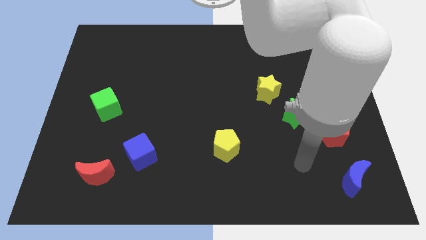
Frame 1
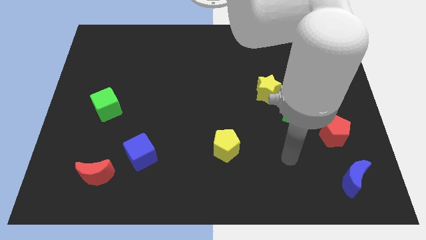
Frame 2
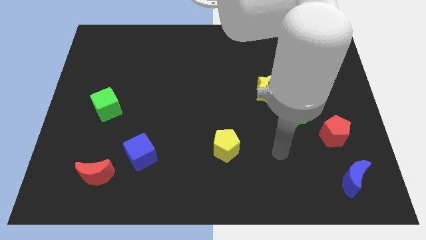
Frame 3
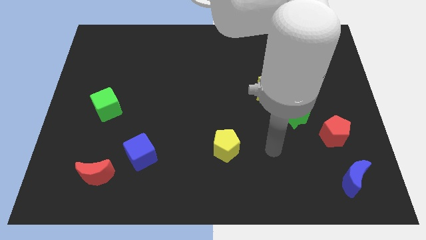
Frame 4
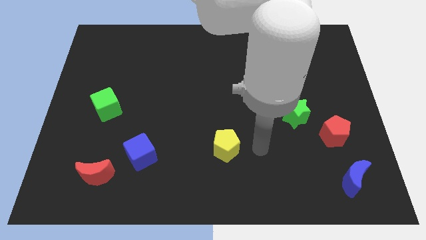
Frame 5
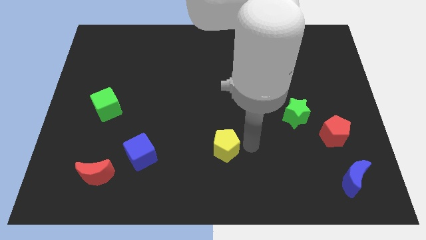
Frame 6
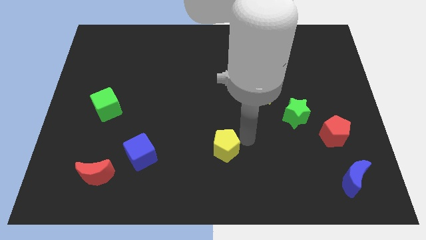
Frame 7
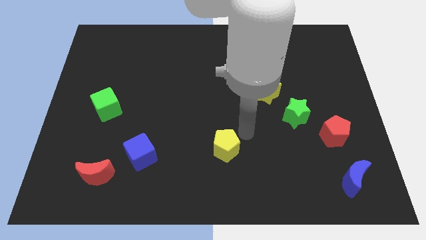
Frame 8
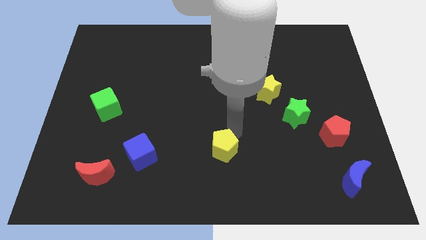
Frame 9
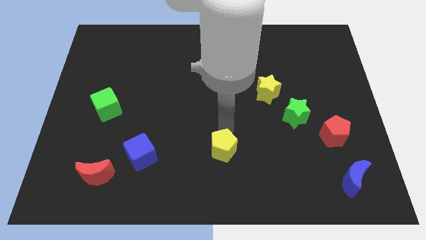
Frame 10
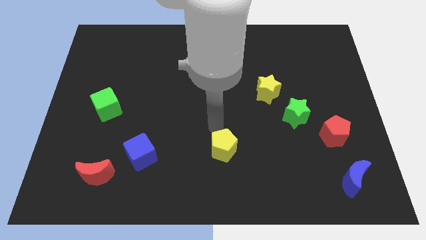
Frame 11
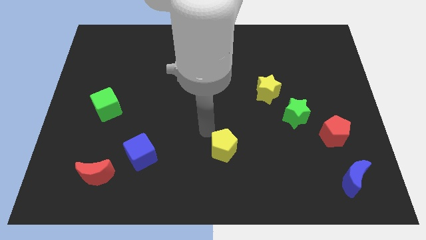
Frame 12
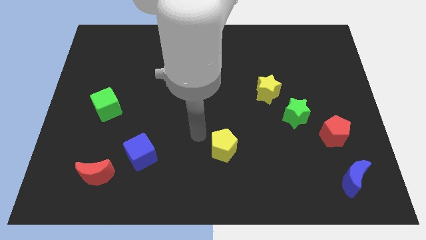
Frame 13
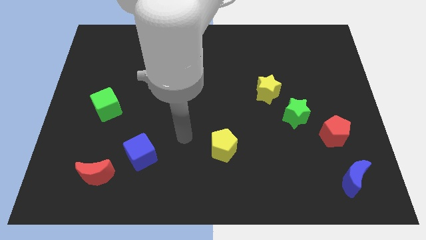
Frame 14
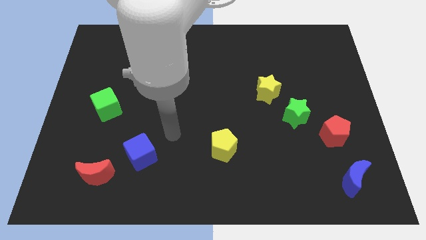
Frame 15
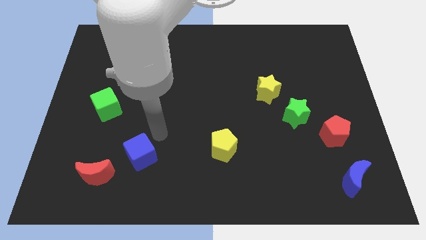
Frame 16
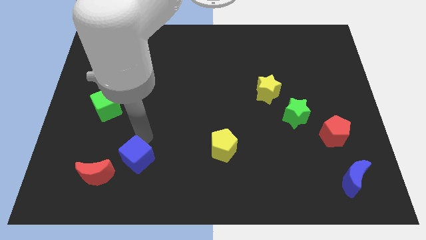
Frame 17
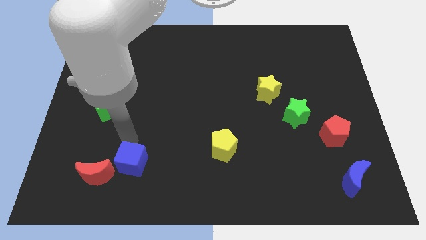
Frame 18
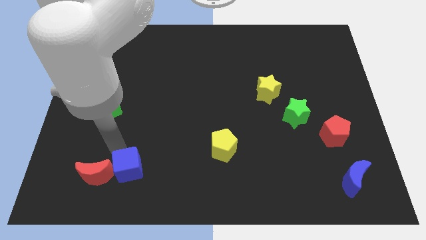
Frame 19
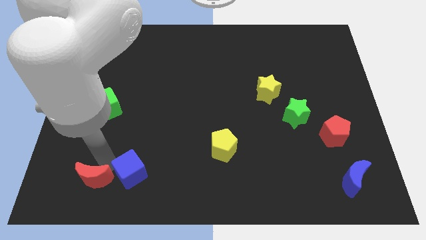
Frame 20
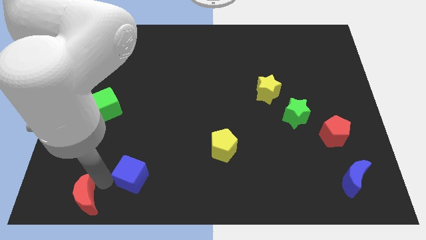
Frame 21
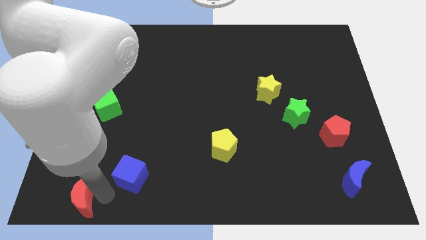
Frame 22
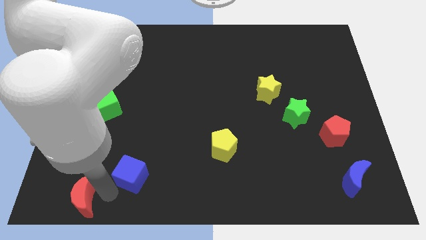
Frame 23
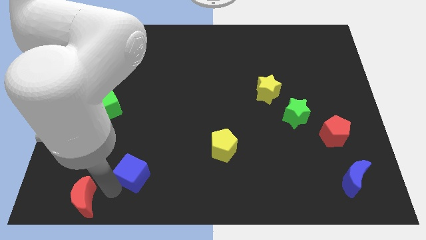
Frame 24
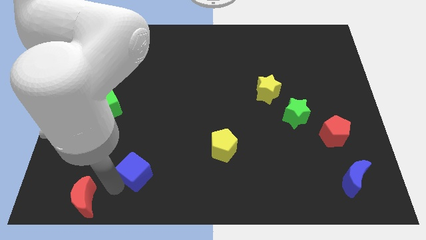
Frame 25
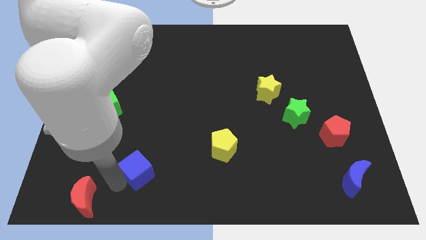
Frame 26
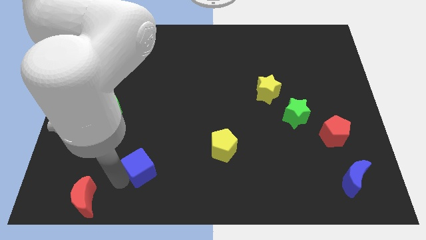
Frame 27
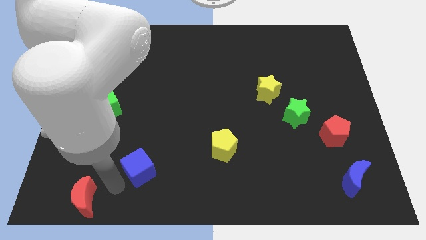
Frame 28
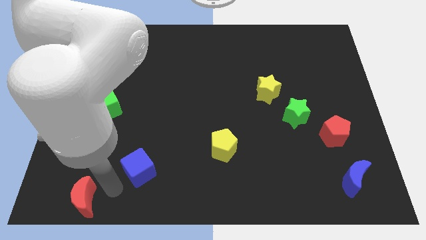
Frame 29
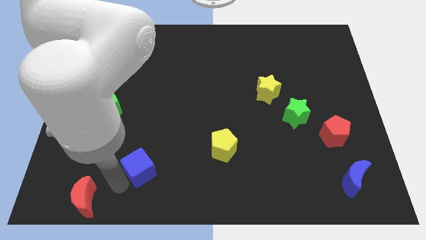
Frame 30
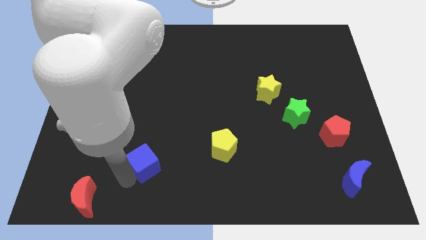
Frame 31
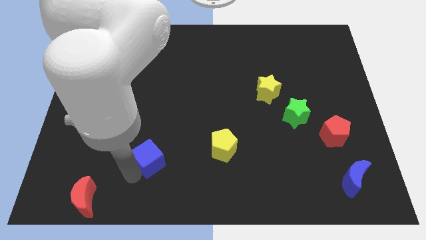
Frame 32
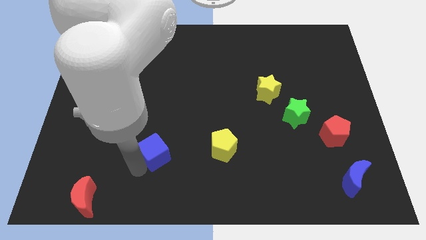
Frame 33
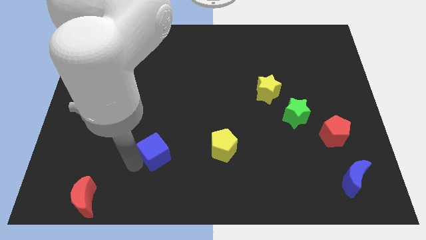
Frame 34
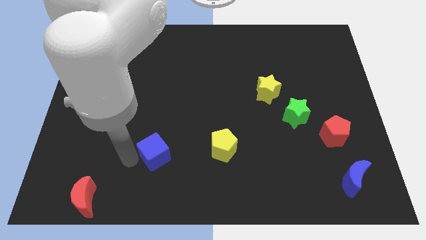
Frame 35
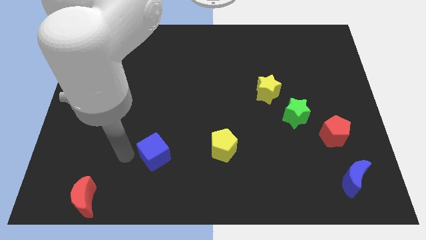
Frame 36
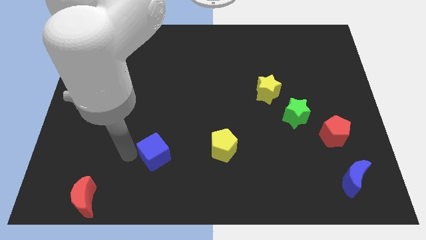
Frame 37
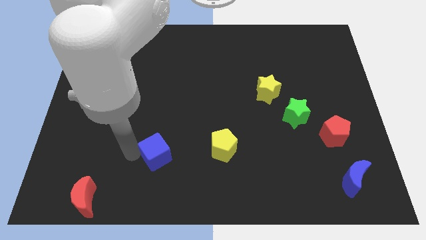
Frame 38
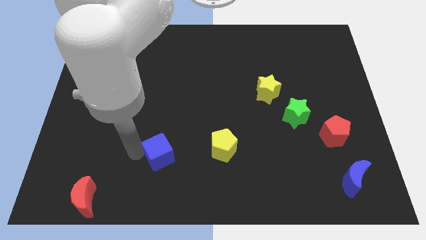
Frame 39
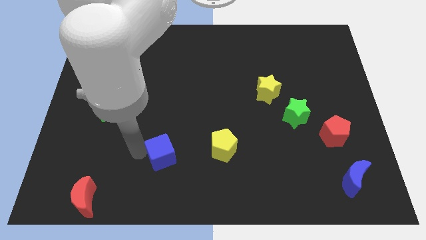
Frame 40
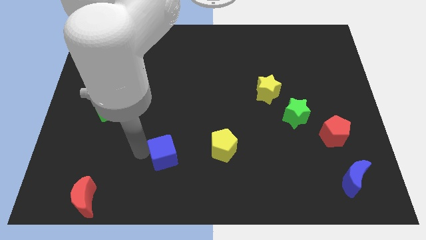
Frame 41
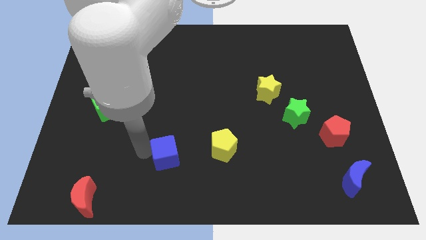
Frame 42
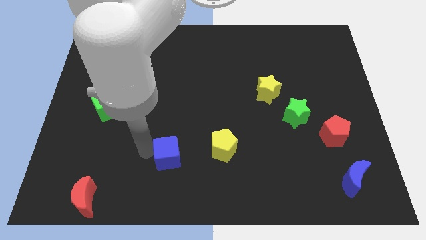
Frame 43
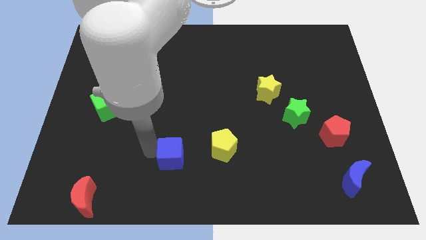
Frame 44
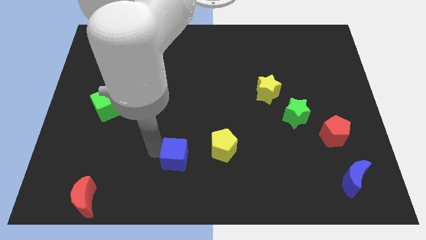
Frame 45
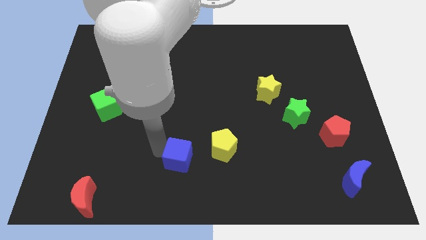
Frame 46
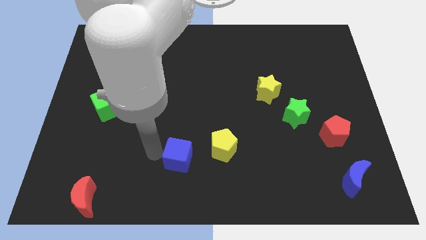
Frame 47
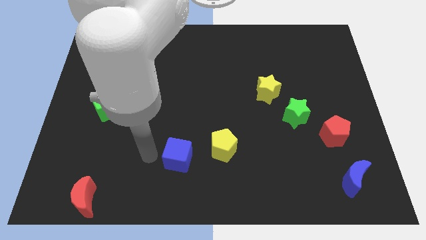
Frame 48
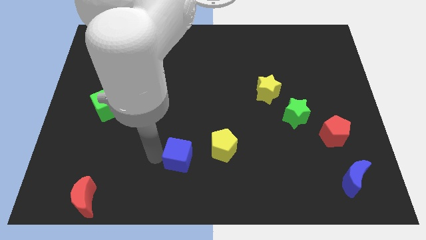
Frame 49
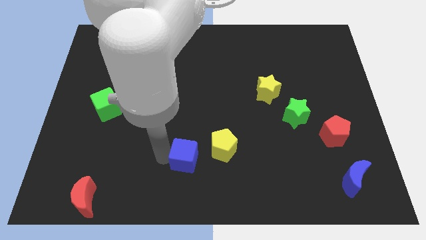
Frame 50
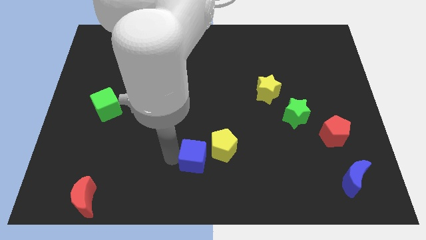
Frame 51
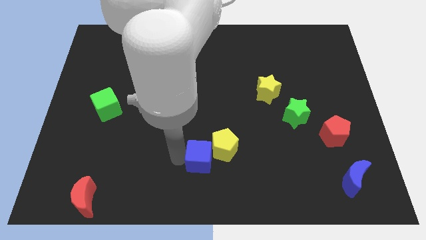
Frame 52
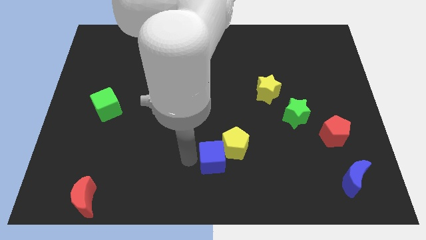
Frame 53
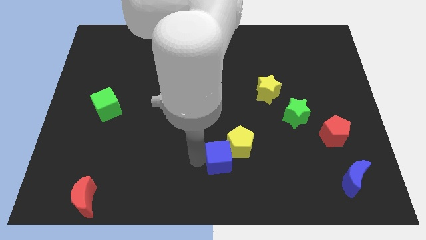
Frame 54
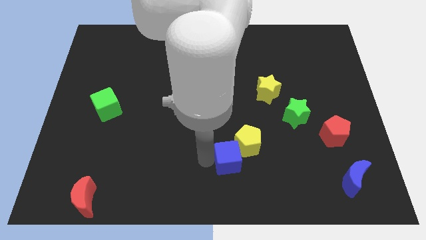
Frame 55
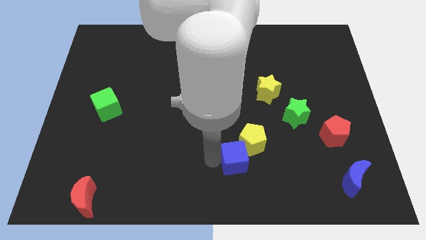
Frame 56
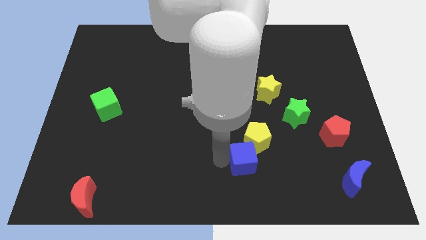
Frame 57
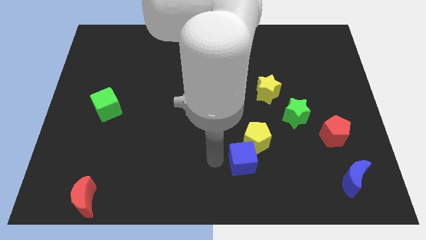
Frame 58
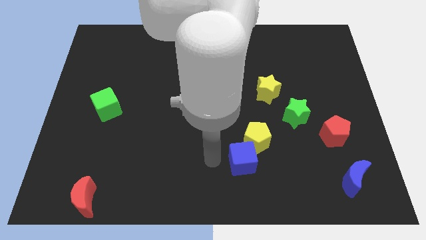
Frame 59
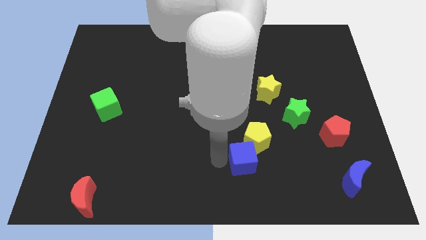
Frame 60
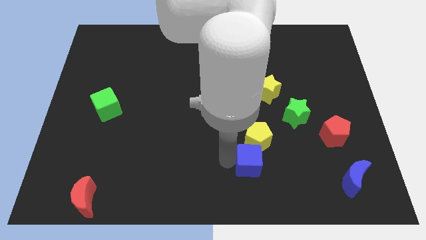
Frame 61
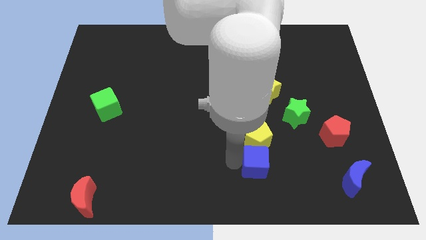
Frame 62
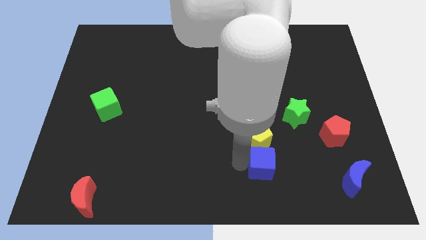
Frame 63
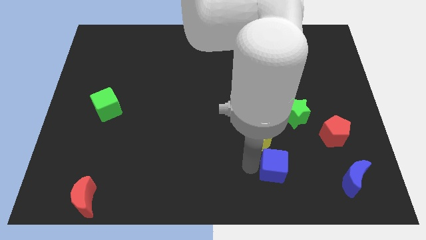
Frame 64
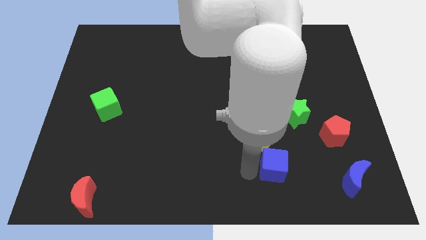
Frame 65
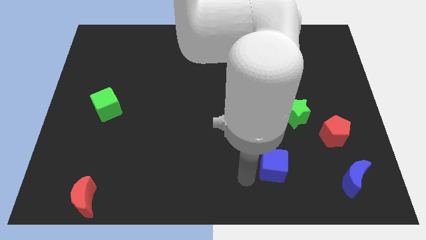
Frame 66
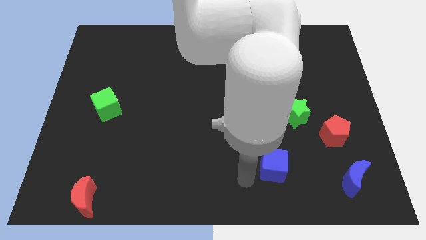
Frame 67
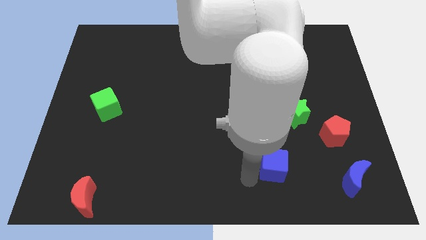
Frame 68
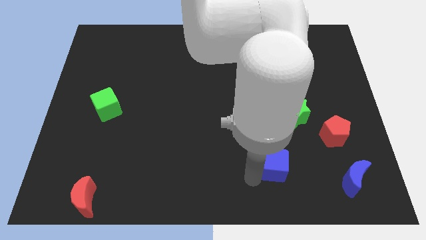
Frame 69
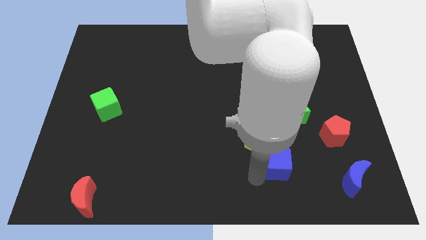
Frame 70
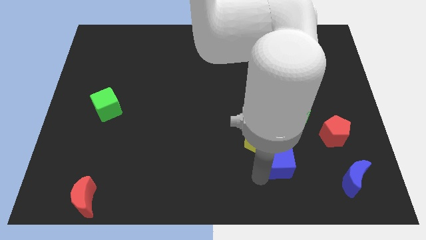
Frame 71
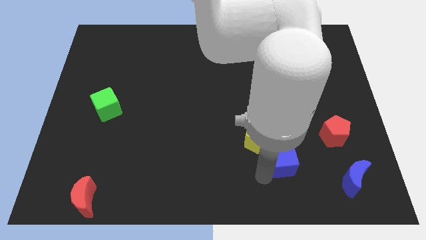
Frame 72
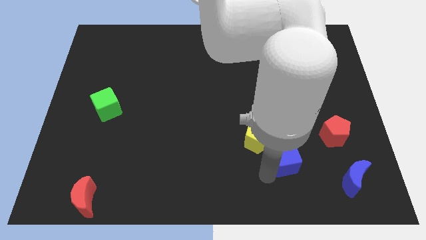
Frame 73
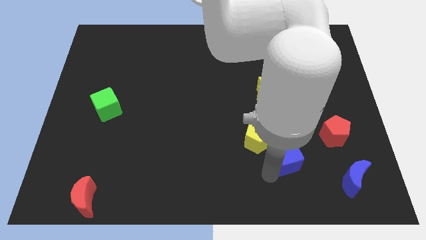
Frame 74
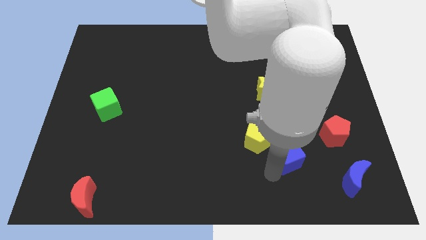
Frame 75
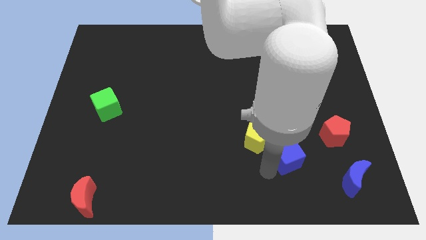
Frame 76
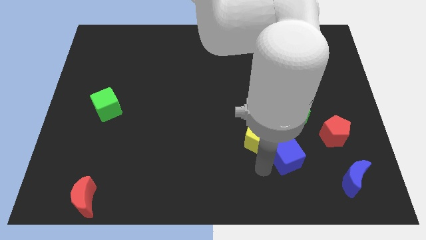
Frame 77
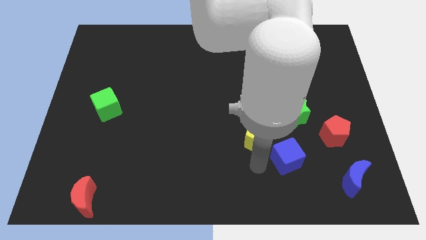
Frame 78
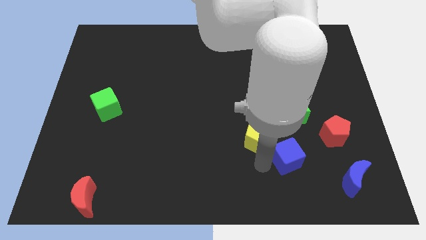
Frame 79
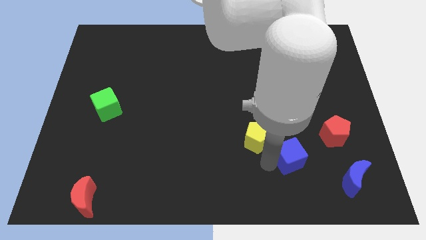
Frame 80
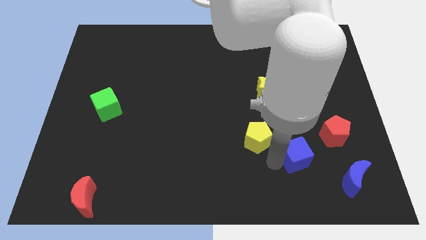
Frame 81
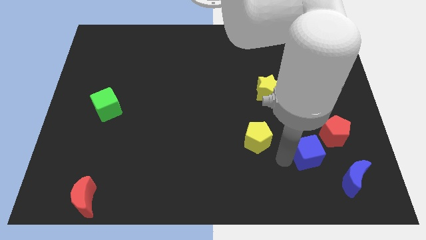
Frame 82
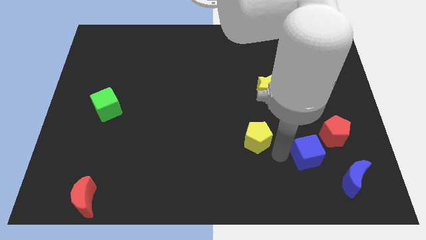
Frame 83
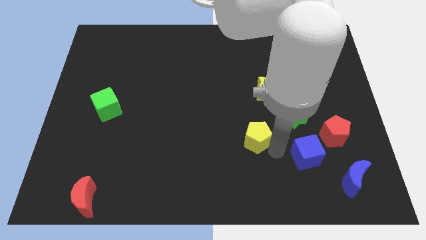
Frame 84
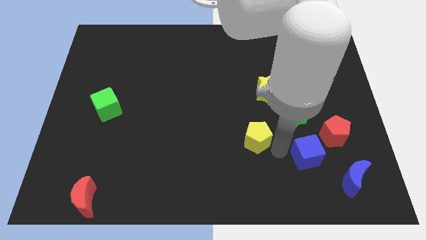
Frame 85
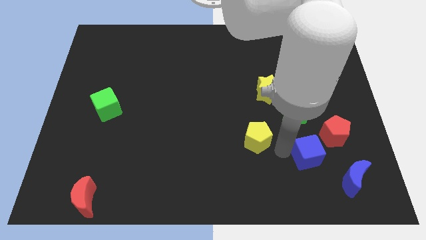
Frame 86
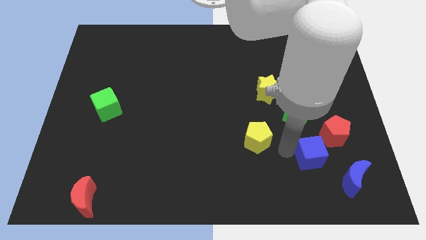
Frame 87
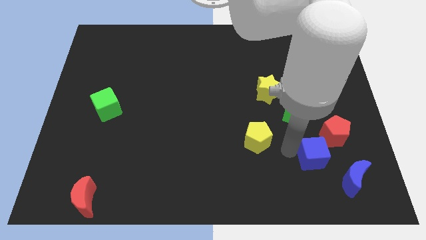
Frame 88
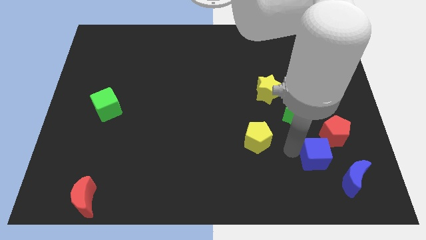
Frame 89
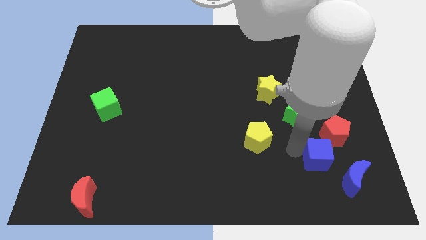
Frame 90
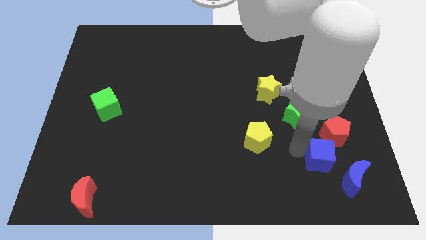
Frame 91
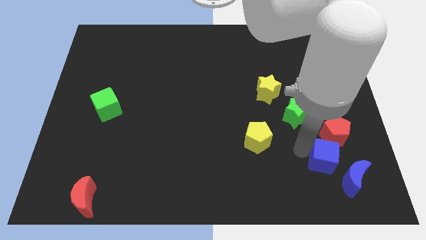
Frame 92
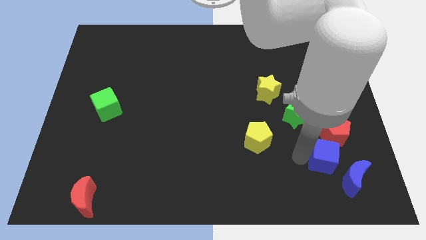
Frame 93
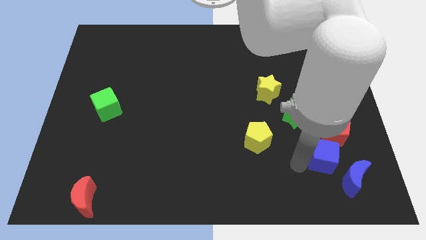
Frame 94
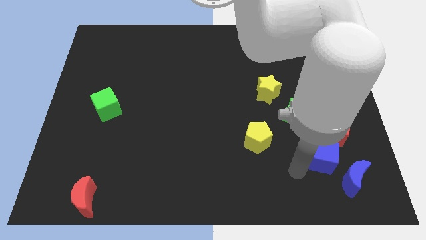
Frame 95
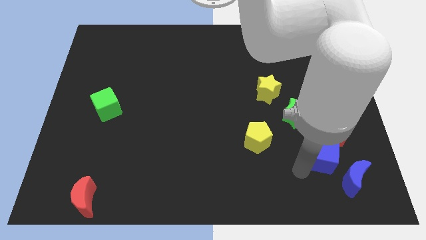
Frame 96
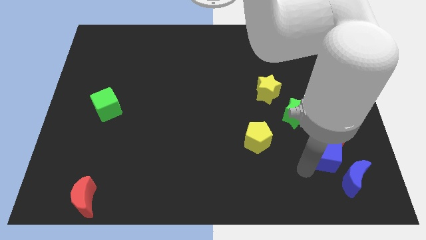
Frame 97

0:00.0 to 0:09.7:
push the blue cube above the blue moon
